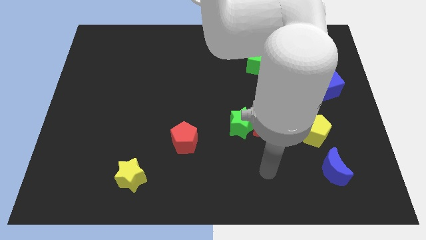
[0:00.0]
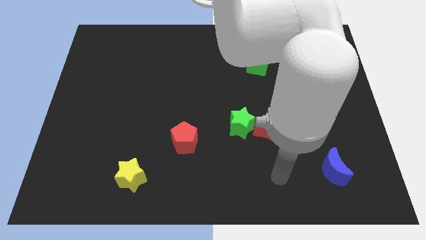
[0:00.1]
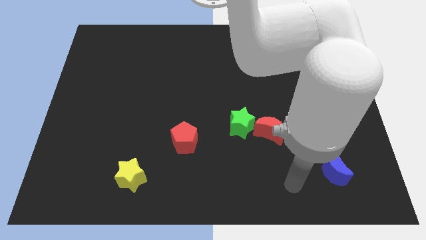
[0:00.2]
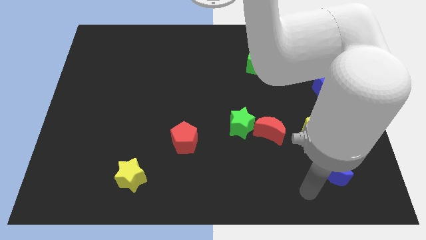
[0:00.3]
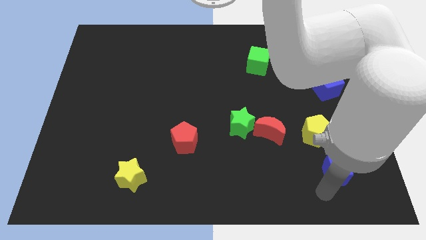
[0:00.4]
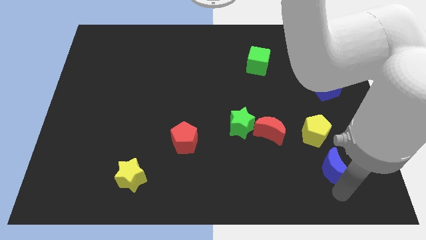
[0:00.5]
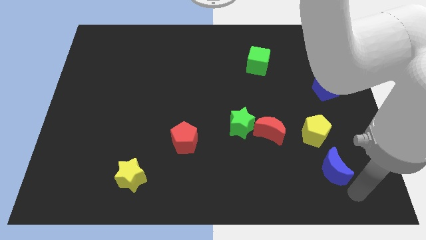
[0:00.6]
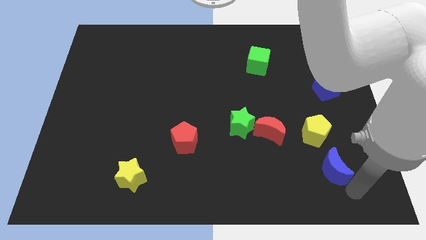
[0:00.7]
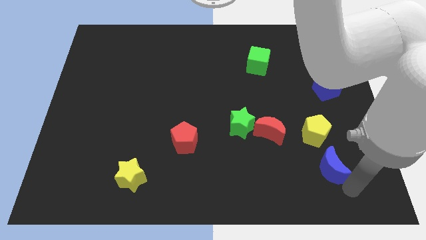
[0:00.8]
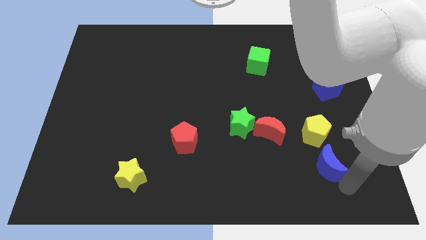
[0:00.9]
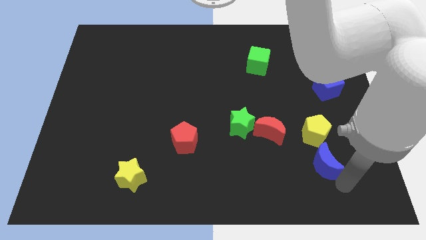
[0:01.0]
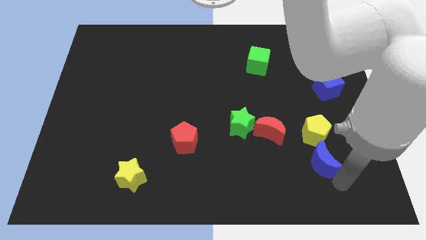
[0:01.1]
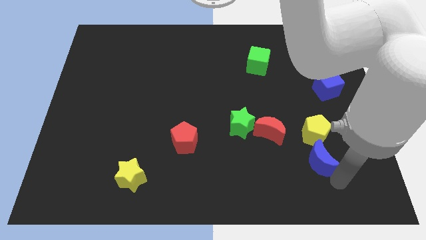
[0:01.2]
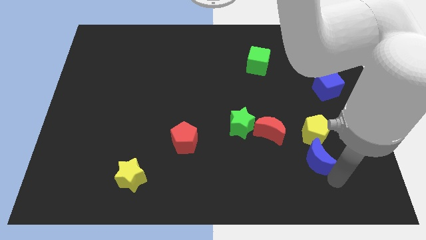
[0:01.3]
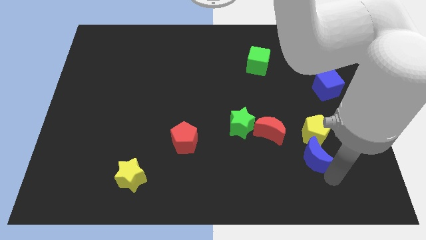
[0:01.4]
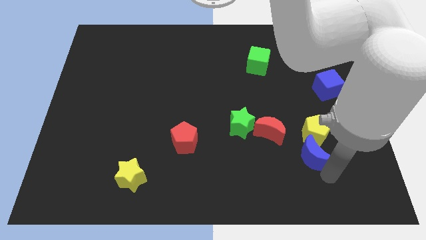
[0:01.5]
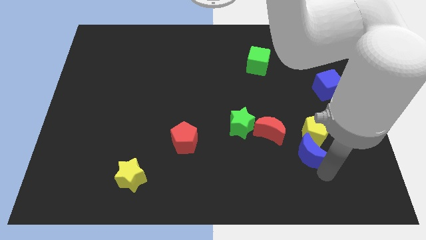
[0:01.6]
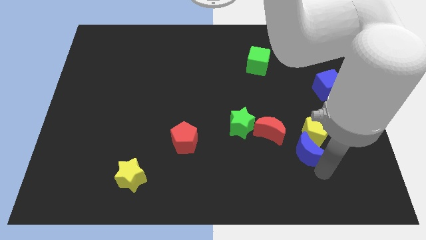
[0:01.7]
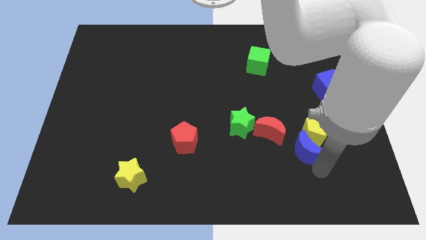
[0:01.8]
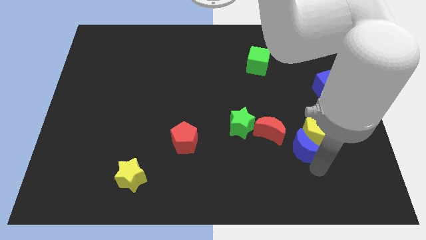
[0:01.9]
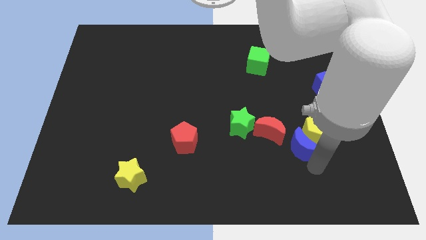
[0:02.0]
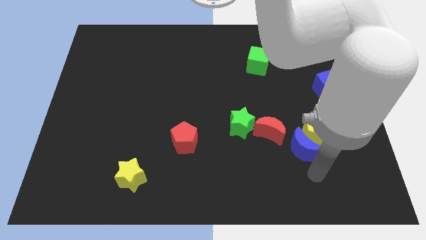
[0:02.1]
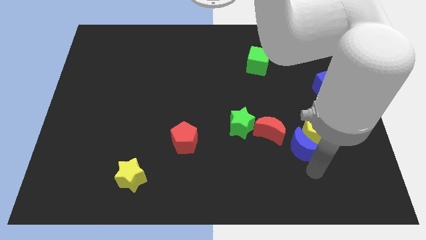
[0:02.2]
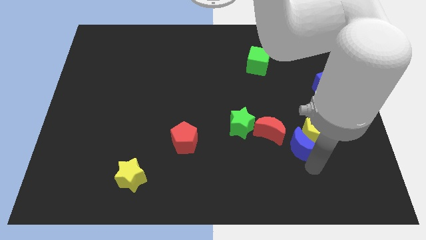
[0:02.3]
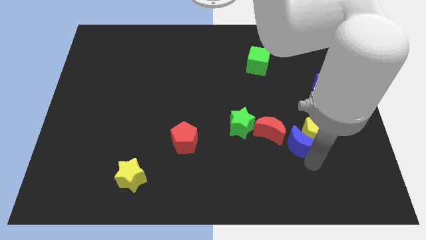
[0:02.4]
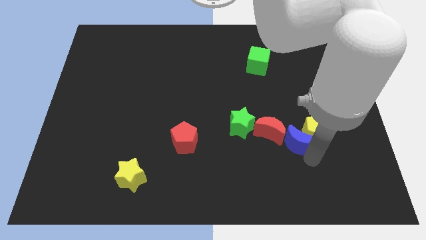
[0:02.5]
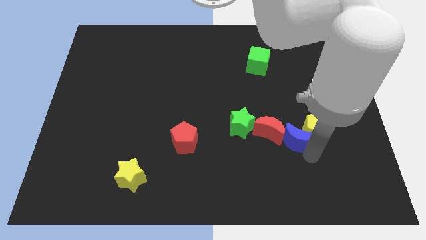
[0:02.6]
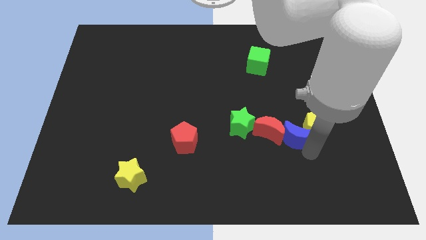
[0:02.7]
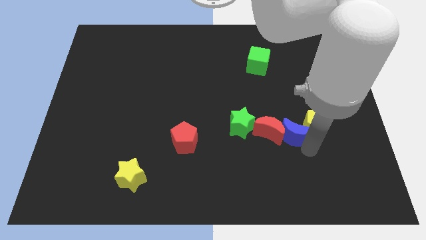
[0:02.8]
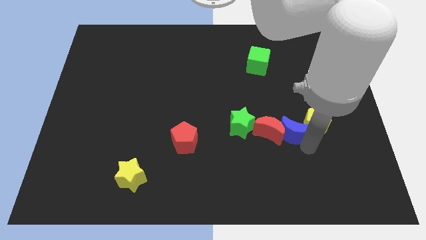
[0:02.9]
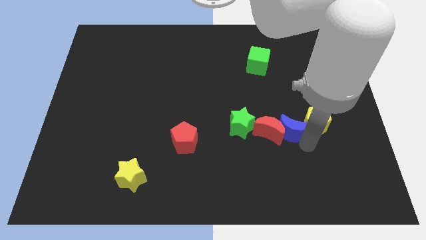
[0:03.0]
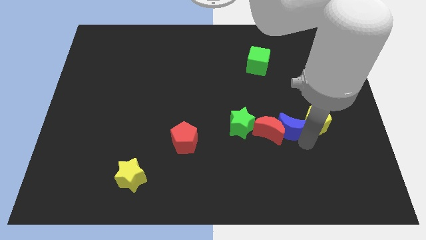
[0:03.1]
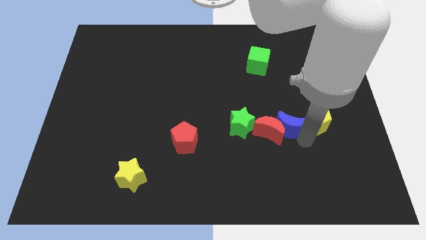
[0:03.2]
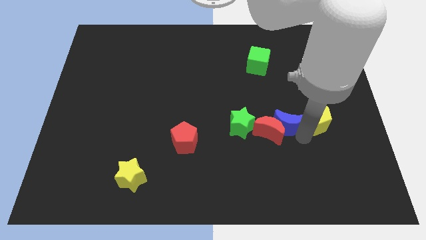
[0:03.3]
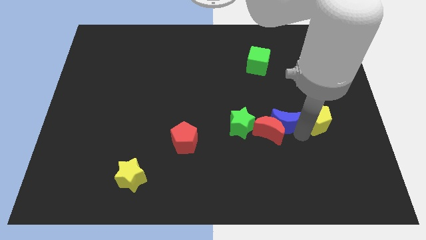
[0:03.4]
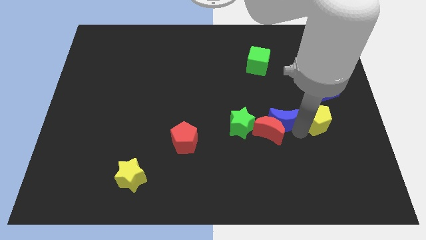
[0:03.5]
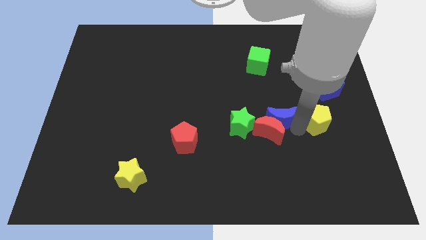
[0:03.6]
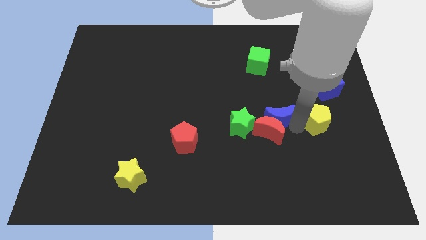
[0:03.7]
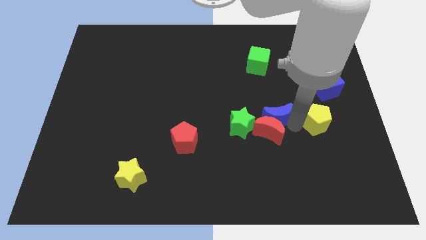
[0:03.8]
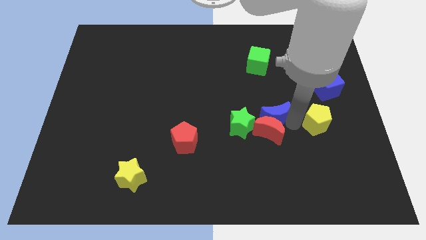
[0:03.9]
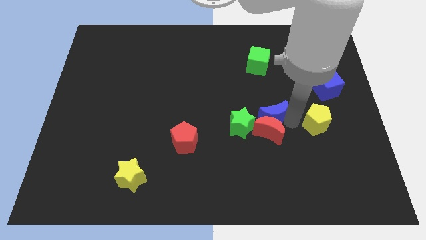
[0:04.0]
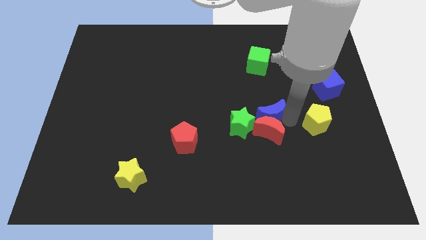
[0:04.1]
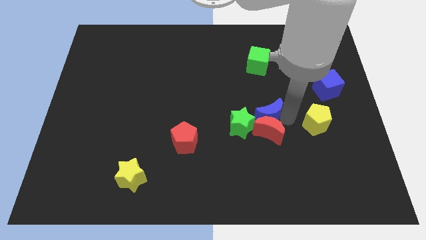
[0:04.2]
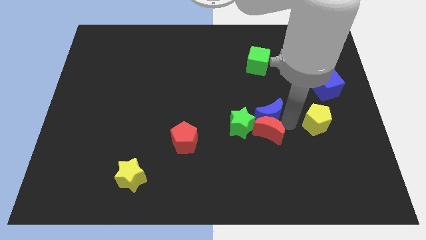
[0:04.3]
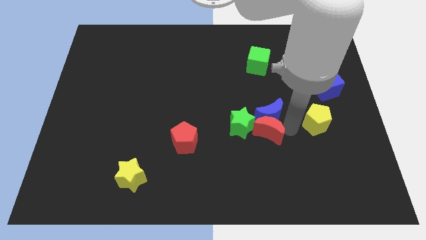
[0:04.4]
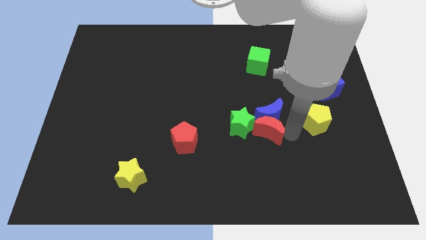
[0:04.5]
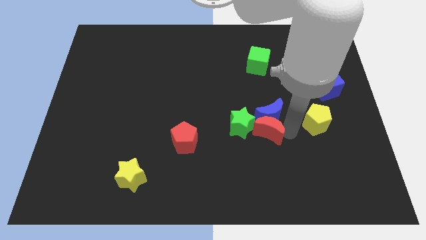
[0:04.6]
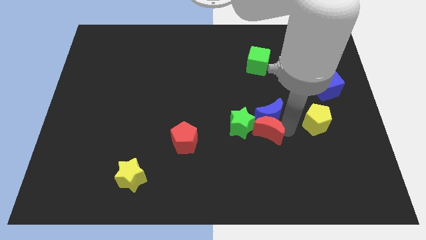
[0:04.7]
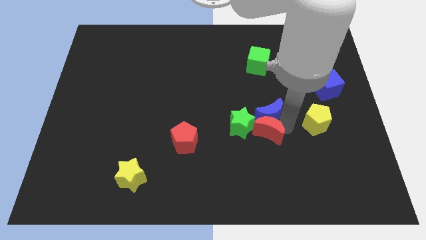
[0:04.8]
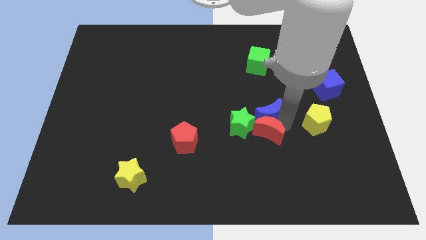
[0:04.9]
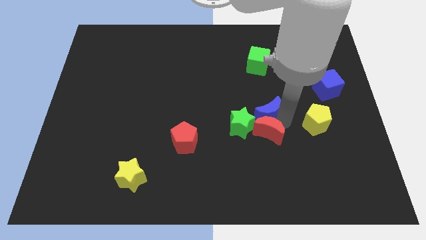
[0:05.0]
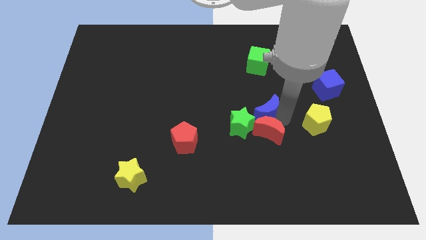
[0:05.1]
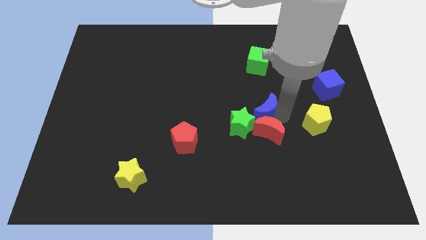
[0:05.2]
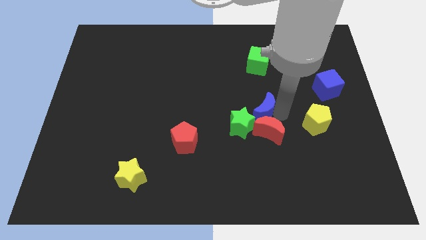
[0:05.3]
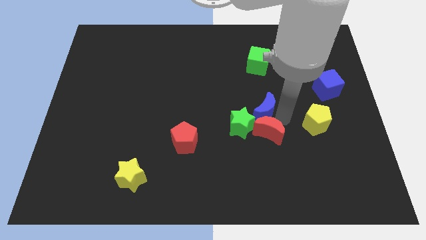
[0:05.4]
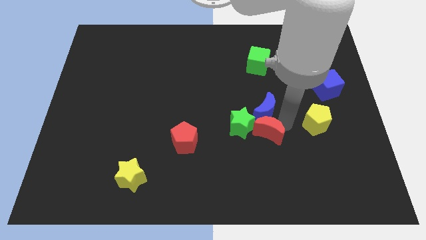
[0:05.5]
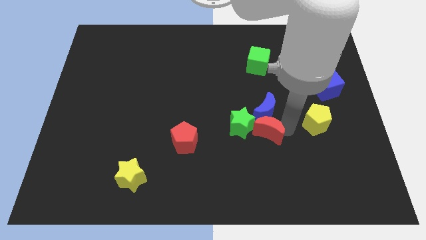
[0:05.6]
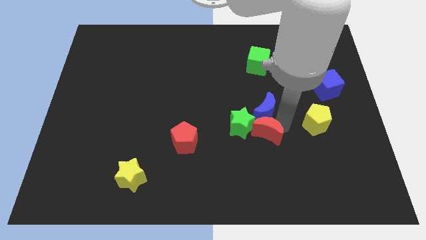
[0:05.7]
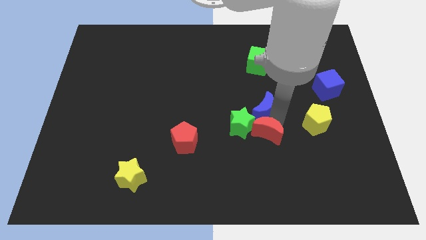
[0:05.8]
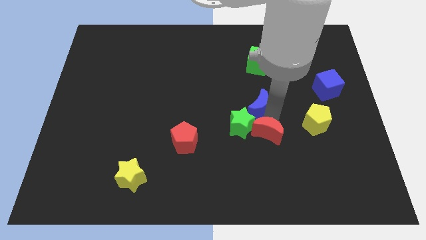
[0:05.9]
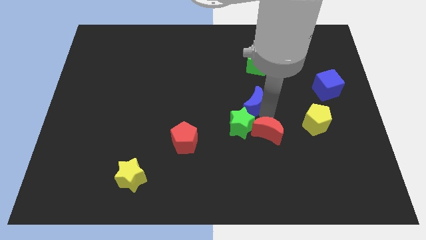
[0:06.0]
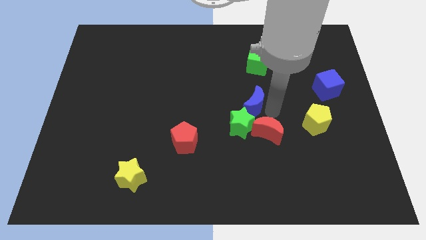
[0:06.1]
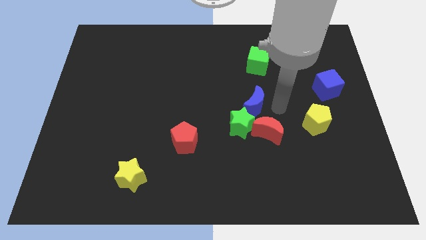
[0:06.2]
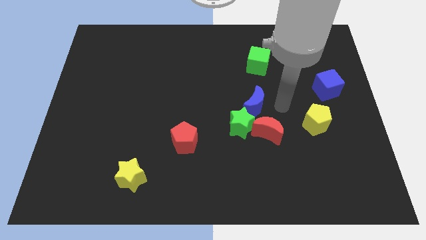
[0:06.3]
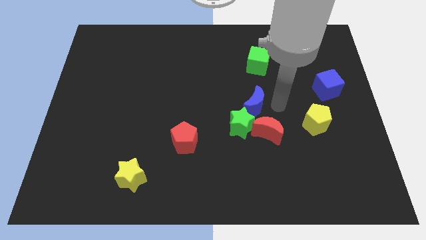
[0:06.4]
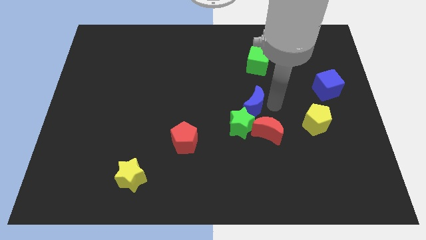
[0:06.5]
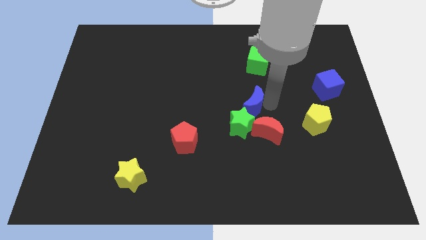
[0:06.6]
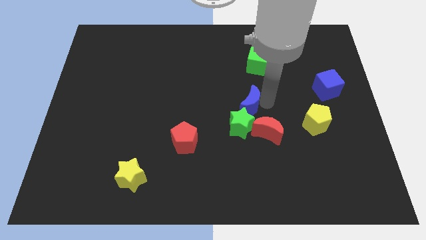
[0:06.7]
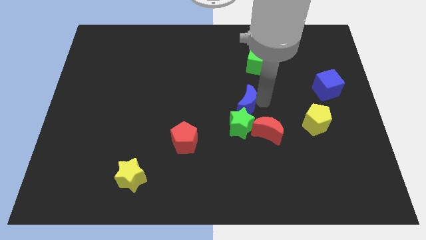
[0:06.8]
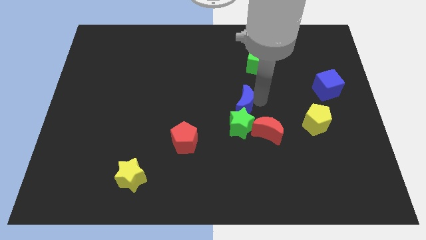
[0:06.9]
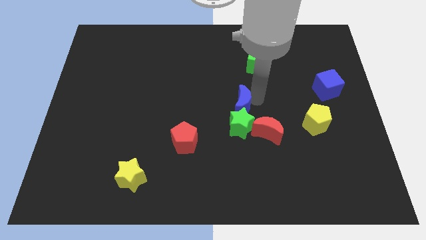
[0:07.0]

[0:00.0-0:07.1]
put the blue moon diagonally up and to the left of the green star
